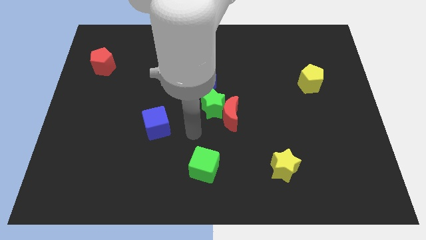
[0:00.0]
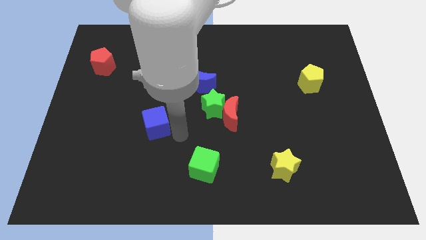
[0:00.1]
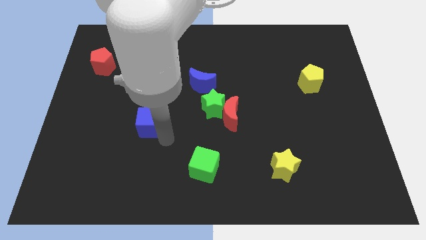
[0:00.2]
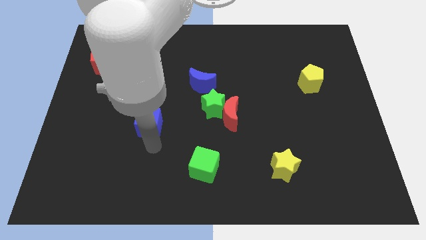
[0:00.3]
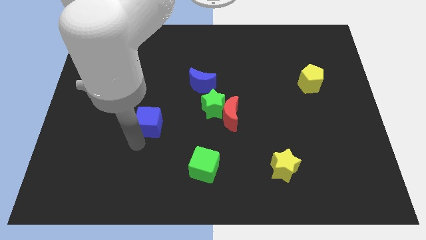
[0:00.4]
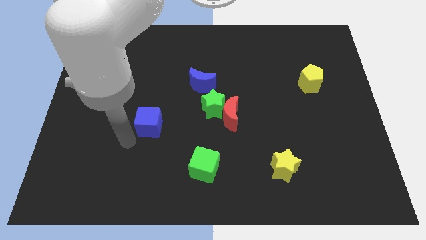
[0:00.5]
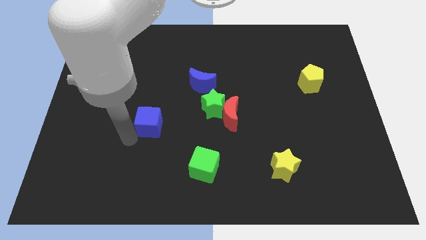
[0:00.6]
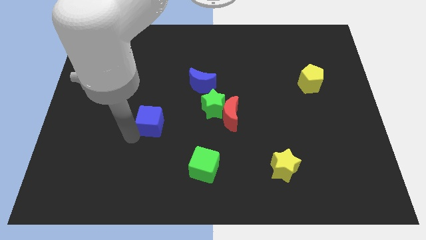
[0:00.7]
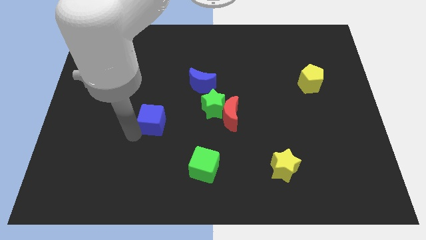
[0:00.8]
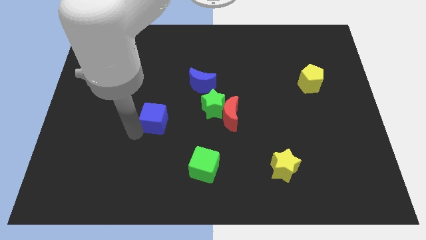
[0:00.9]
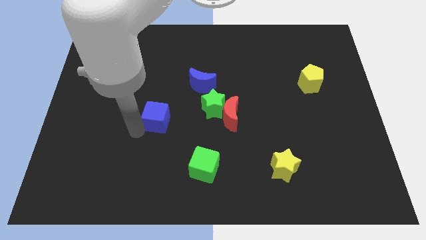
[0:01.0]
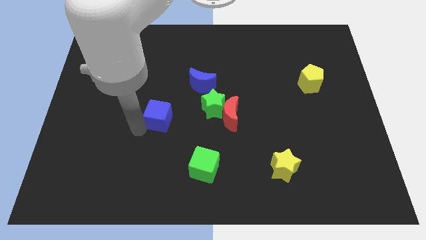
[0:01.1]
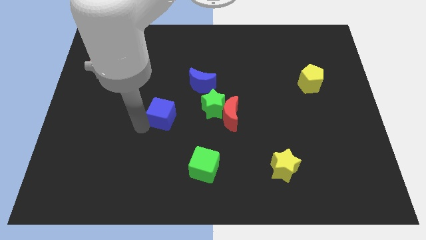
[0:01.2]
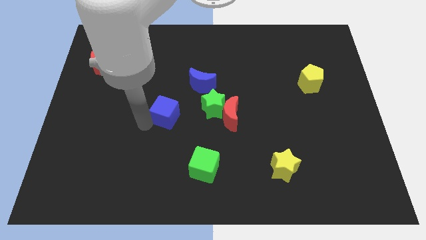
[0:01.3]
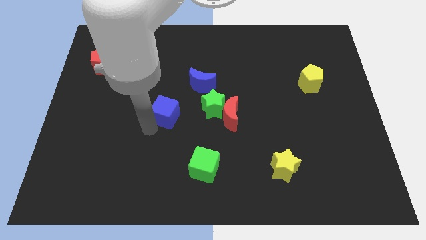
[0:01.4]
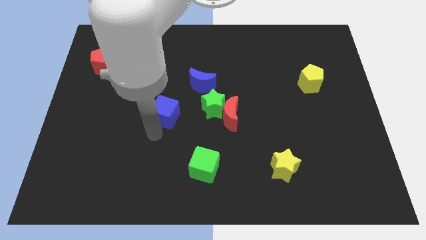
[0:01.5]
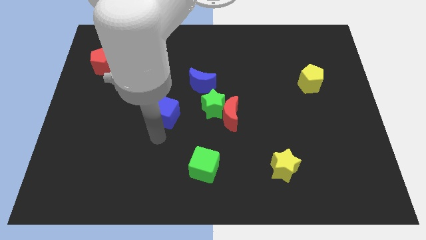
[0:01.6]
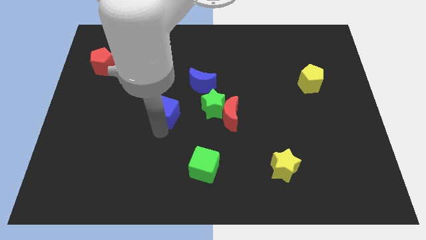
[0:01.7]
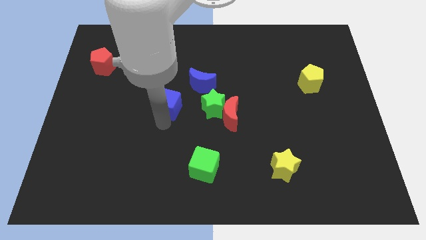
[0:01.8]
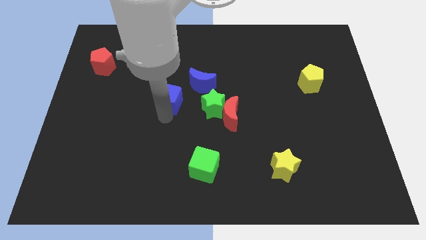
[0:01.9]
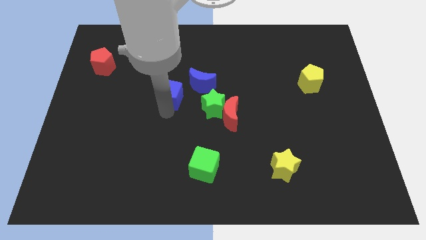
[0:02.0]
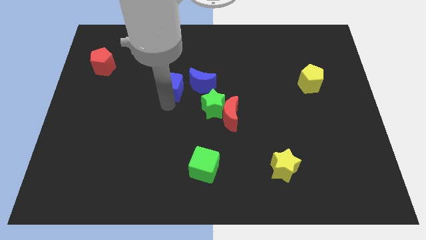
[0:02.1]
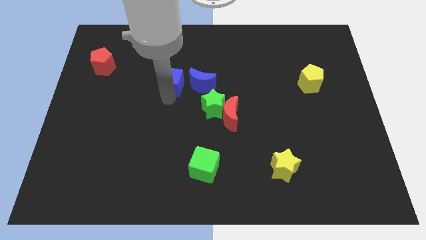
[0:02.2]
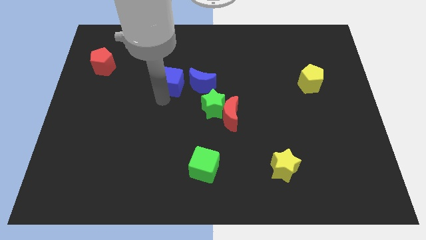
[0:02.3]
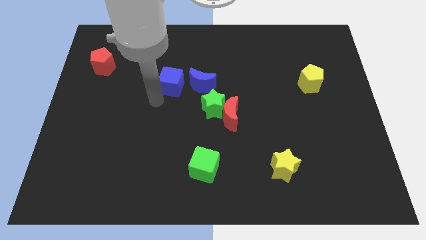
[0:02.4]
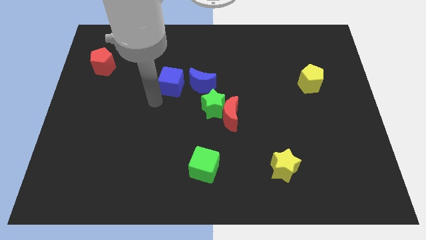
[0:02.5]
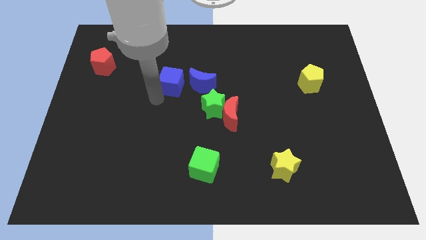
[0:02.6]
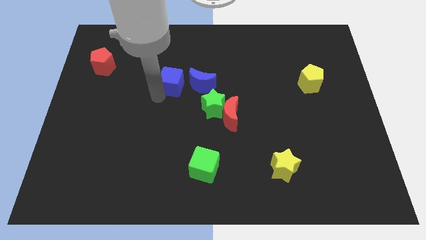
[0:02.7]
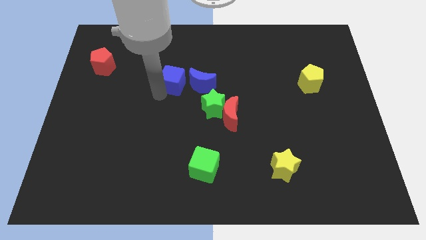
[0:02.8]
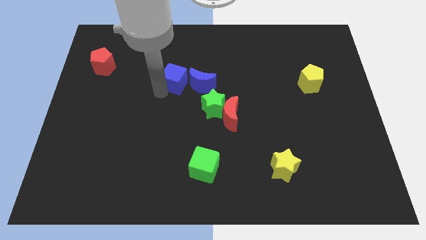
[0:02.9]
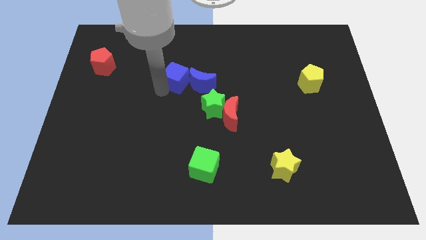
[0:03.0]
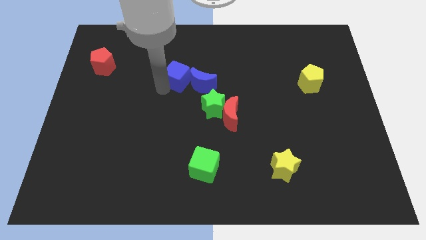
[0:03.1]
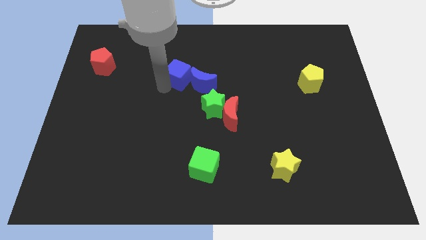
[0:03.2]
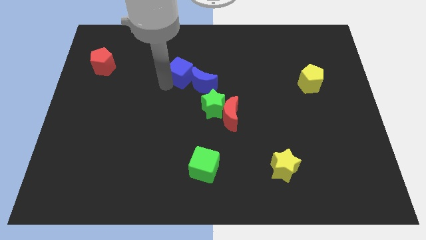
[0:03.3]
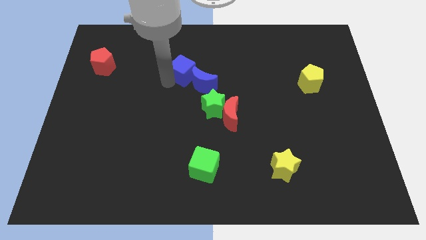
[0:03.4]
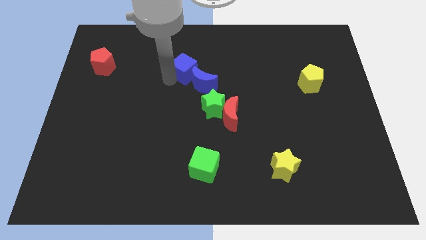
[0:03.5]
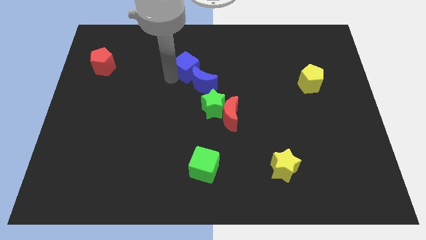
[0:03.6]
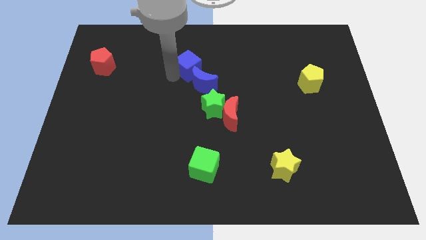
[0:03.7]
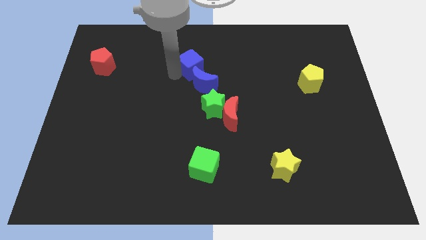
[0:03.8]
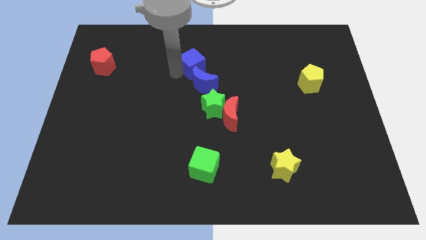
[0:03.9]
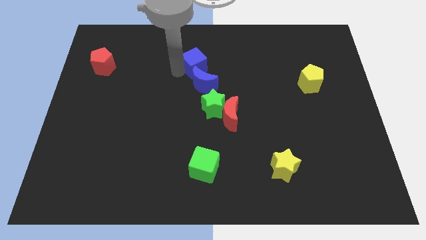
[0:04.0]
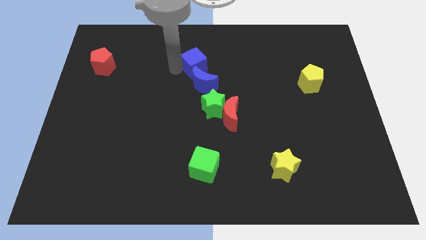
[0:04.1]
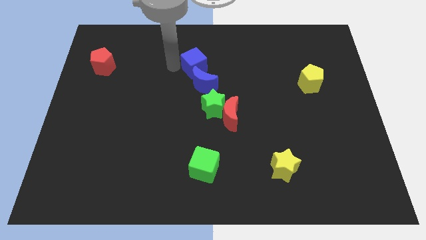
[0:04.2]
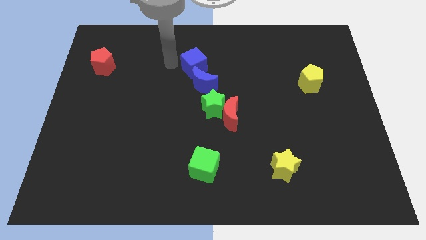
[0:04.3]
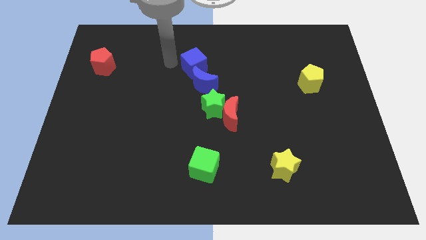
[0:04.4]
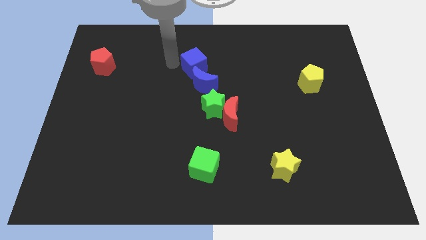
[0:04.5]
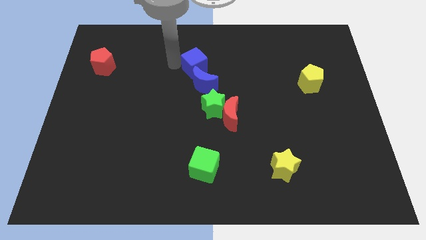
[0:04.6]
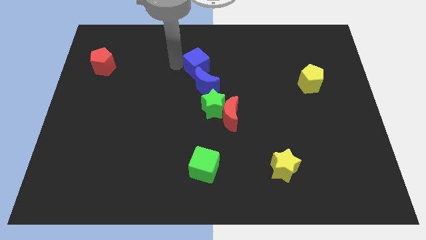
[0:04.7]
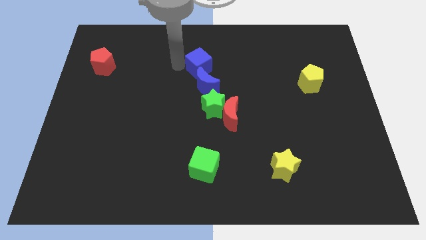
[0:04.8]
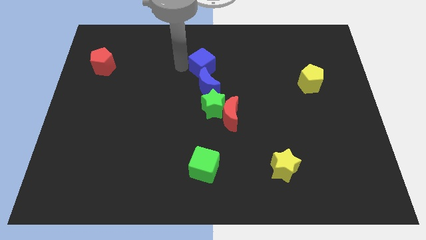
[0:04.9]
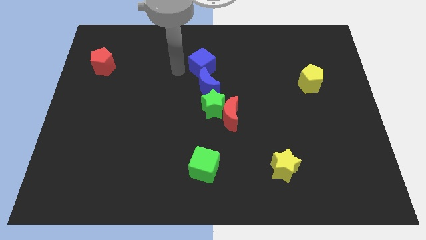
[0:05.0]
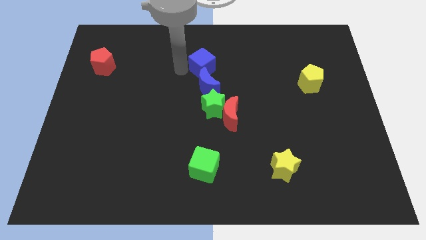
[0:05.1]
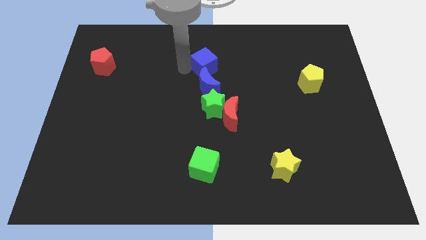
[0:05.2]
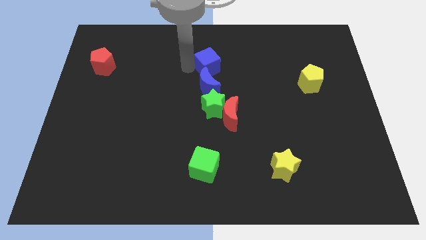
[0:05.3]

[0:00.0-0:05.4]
push the blue cube upwards and right diagonally

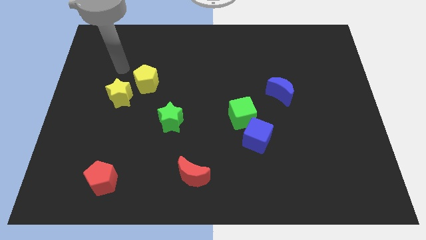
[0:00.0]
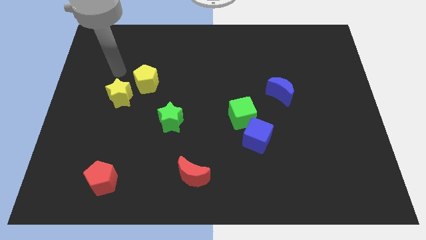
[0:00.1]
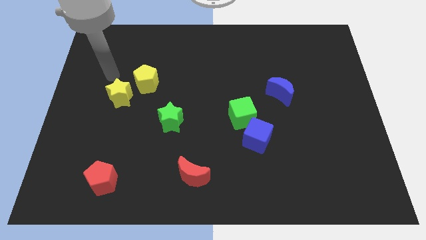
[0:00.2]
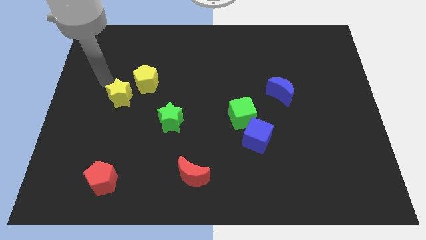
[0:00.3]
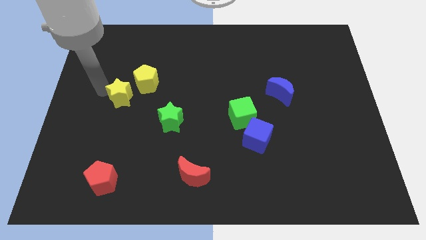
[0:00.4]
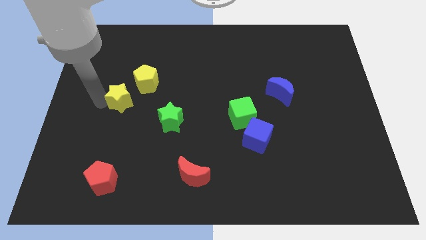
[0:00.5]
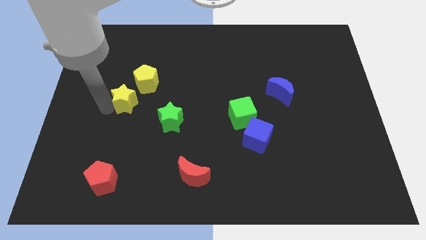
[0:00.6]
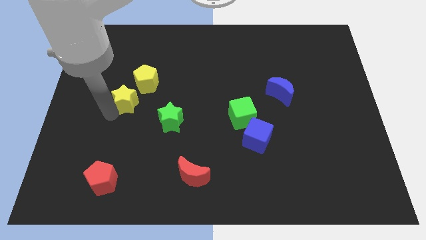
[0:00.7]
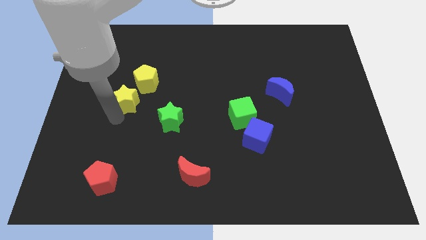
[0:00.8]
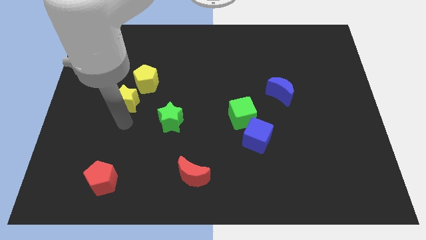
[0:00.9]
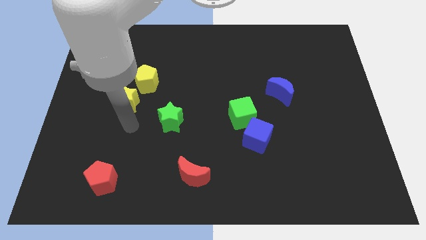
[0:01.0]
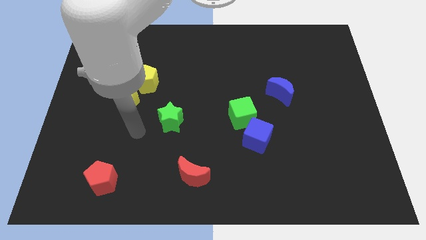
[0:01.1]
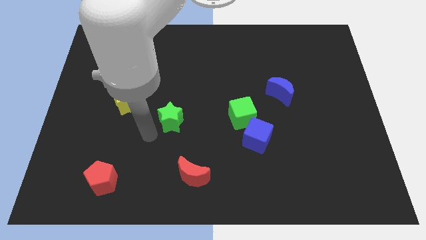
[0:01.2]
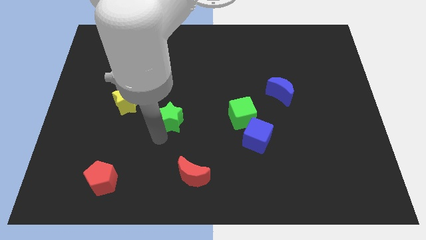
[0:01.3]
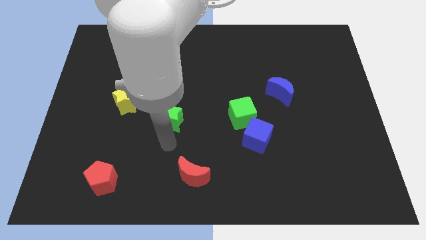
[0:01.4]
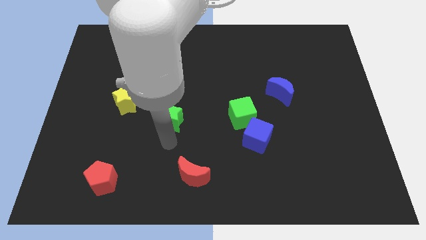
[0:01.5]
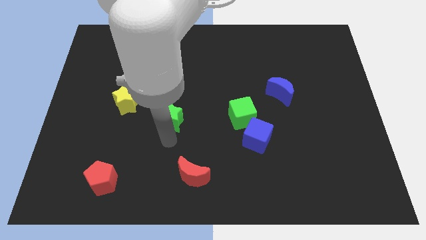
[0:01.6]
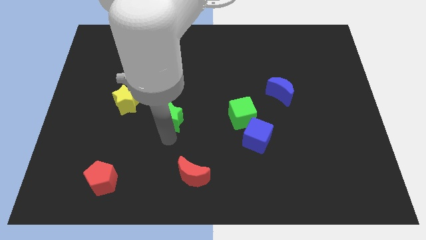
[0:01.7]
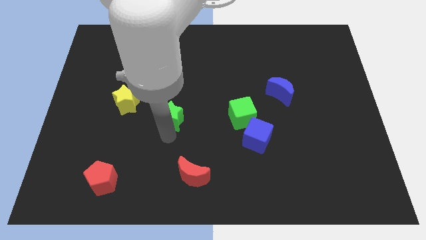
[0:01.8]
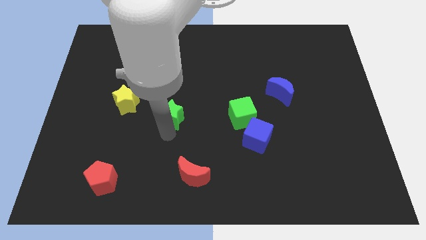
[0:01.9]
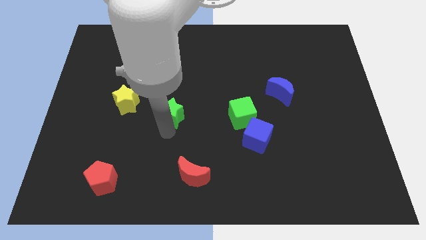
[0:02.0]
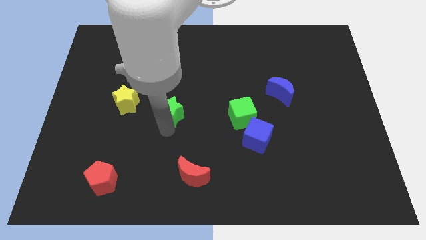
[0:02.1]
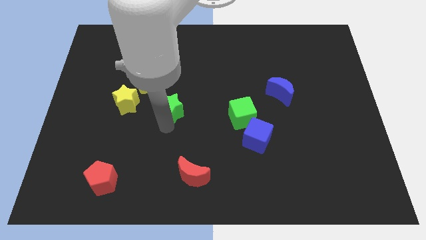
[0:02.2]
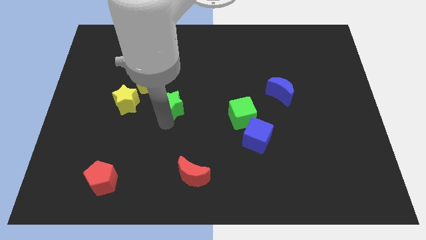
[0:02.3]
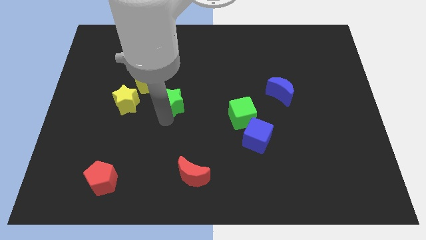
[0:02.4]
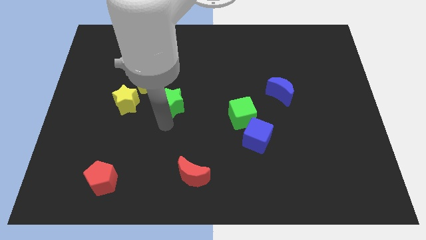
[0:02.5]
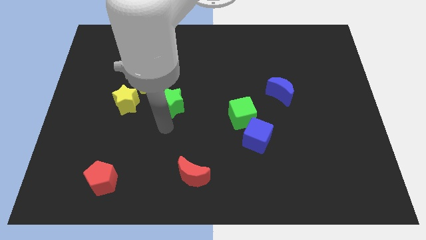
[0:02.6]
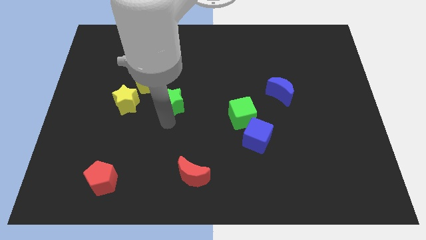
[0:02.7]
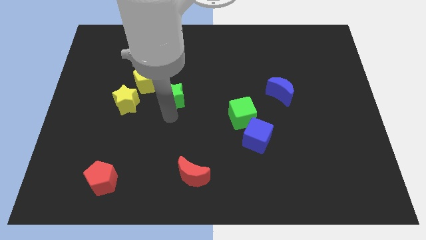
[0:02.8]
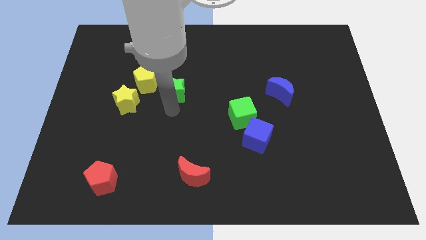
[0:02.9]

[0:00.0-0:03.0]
move the green star upwards a little
